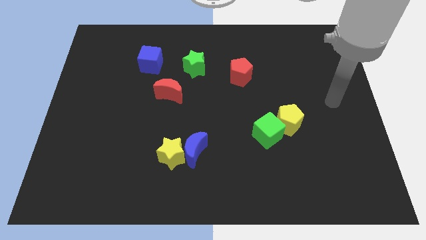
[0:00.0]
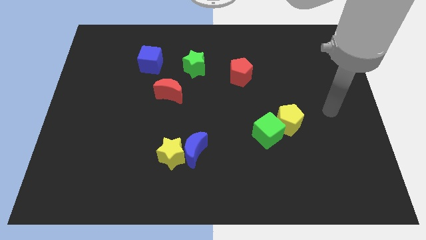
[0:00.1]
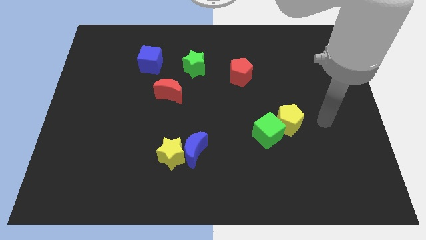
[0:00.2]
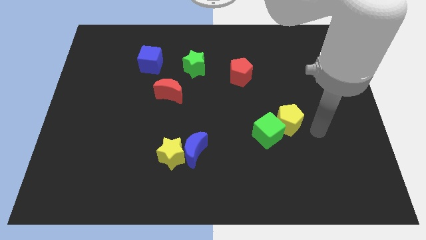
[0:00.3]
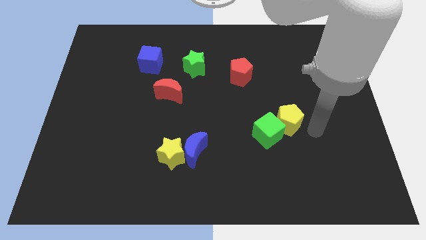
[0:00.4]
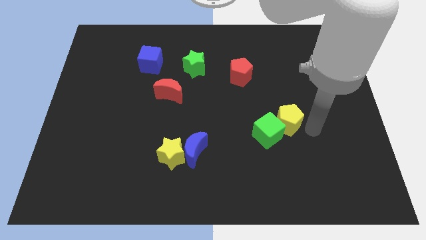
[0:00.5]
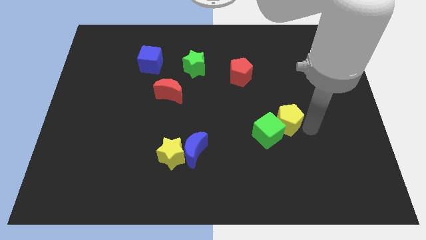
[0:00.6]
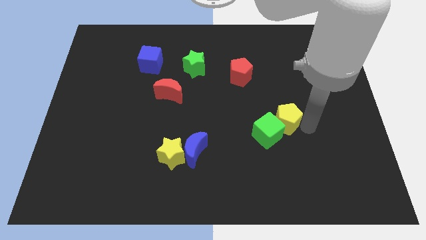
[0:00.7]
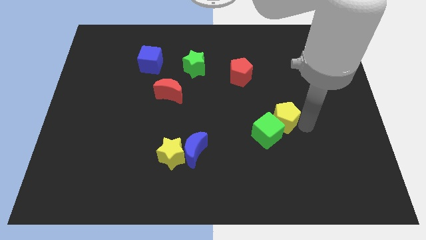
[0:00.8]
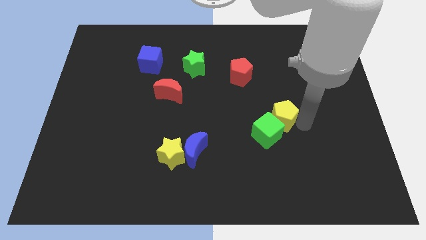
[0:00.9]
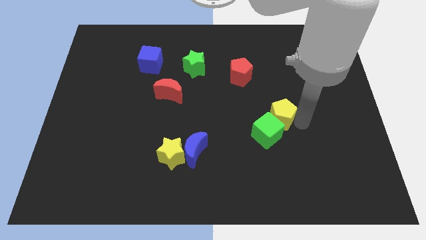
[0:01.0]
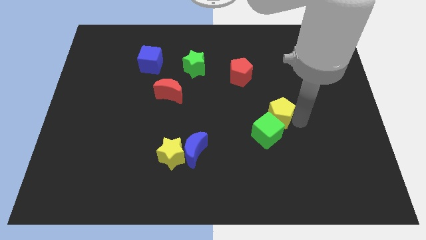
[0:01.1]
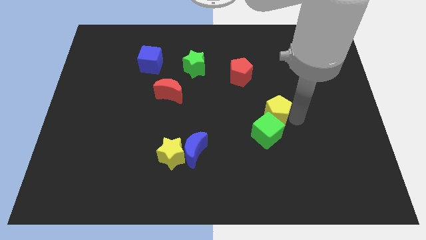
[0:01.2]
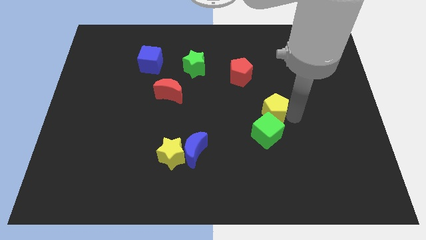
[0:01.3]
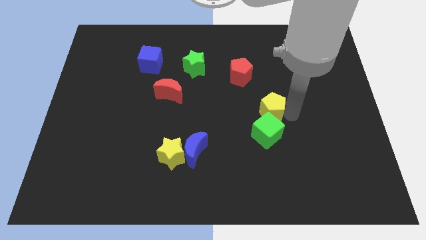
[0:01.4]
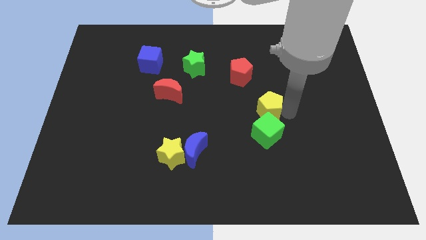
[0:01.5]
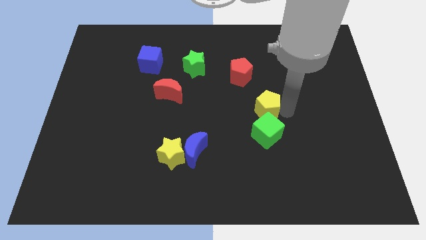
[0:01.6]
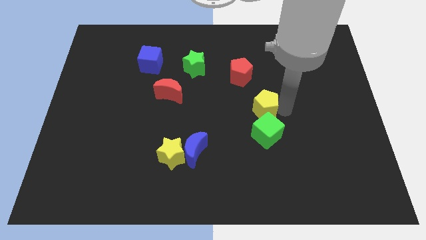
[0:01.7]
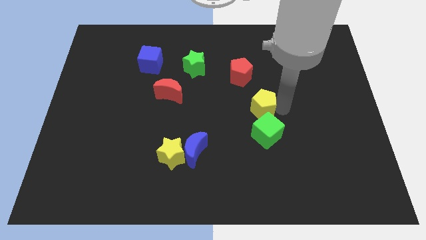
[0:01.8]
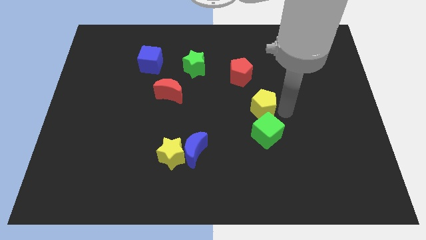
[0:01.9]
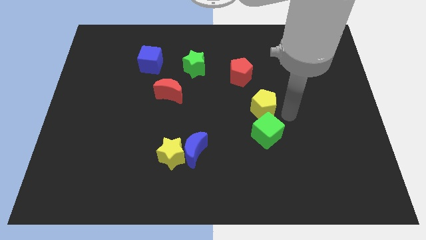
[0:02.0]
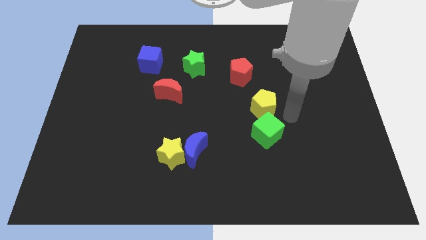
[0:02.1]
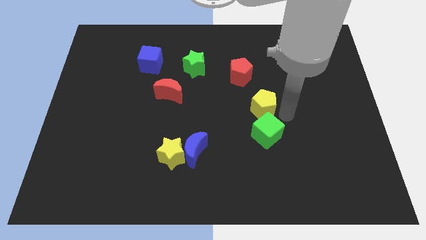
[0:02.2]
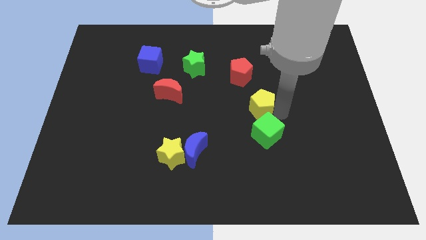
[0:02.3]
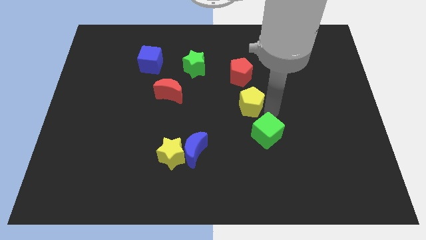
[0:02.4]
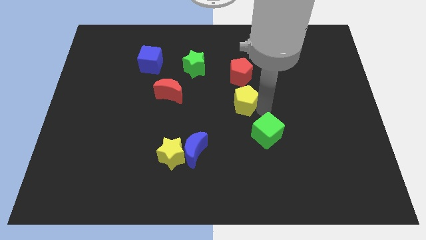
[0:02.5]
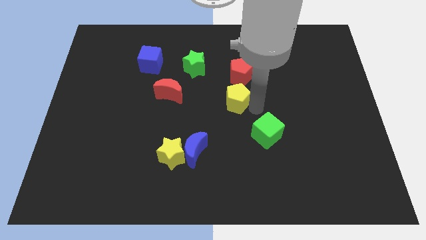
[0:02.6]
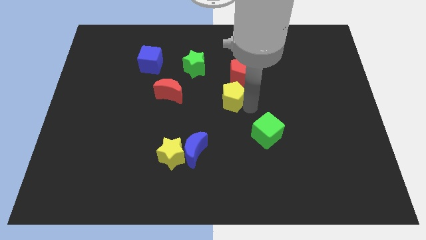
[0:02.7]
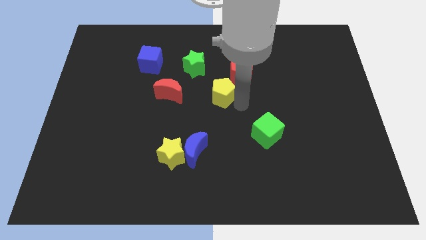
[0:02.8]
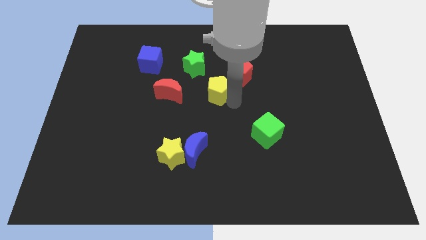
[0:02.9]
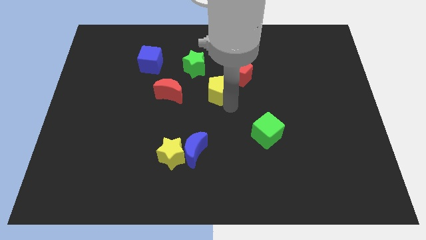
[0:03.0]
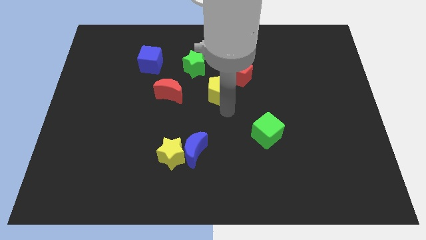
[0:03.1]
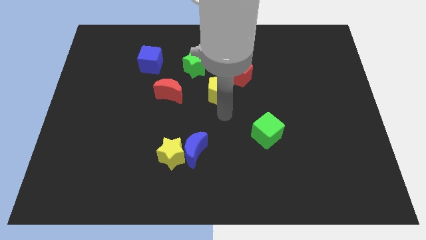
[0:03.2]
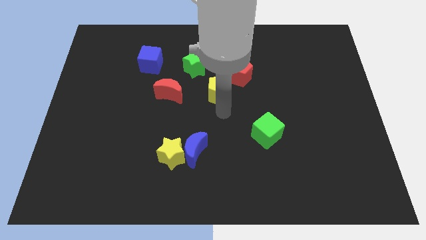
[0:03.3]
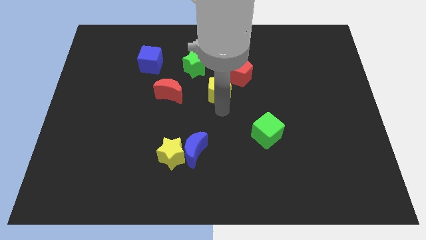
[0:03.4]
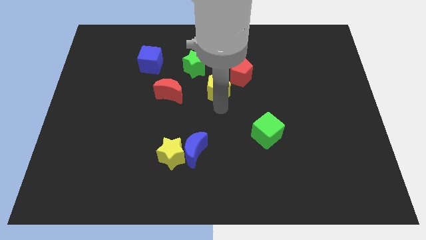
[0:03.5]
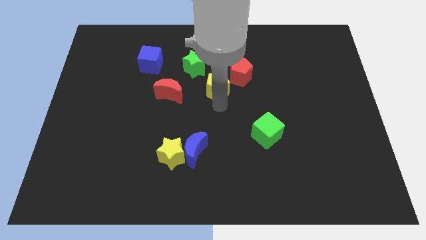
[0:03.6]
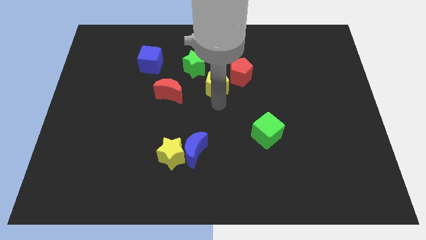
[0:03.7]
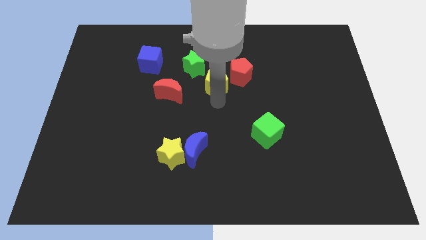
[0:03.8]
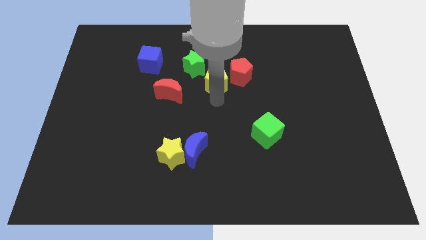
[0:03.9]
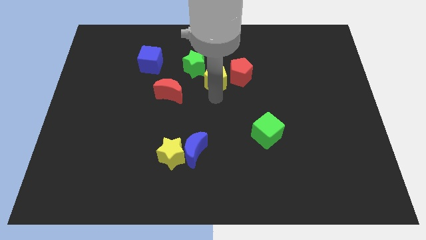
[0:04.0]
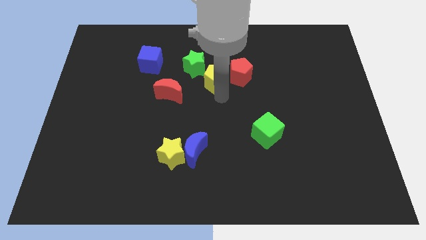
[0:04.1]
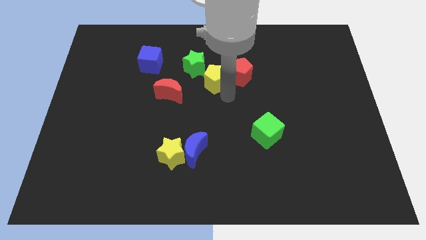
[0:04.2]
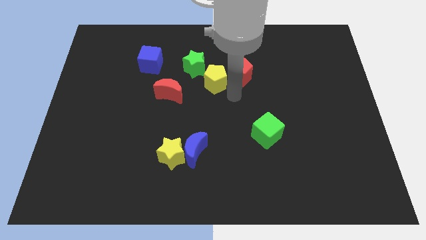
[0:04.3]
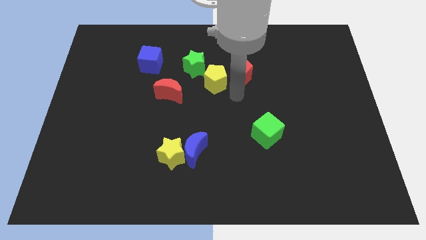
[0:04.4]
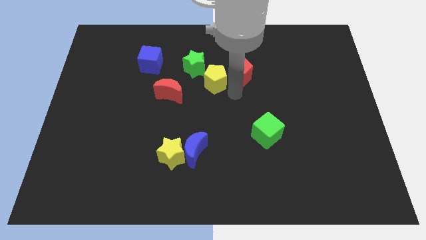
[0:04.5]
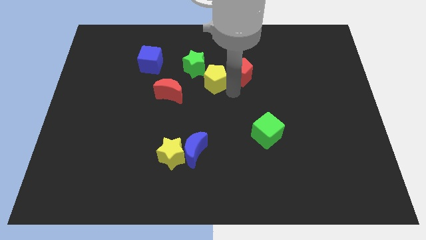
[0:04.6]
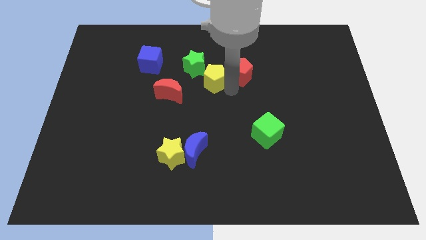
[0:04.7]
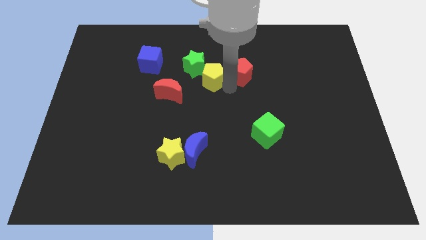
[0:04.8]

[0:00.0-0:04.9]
put the yellow pentagon to the green star

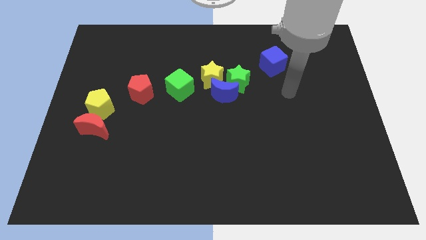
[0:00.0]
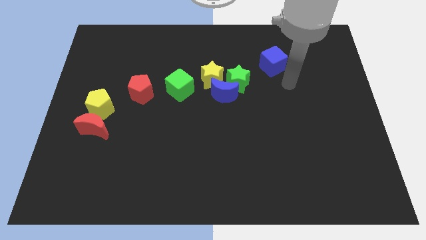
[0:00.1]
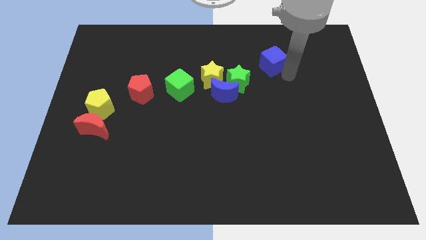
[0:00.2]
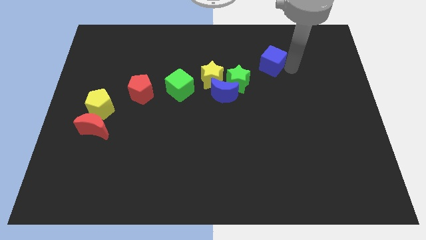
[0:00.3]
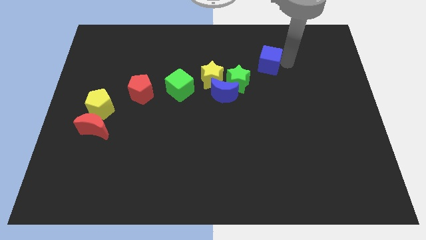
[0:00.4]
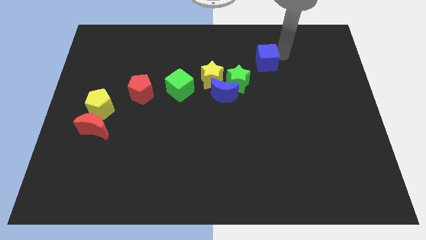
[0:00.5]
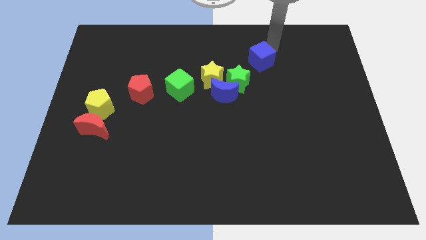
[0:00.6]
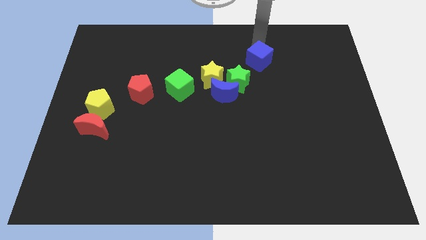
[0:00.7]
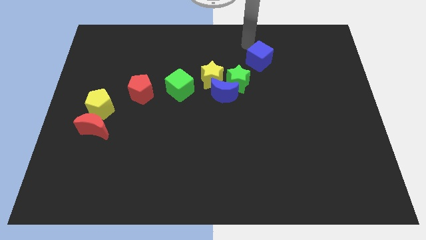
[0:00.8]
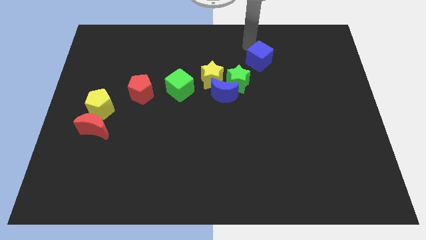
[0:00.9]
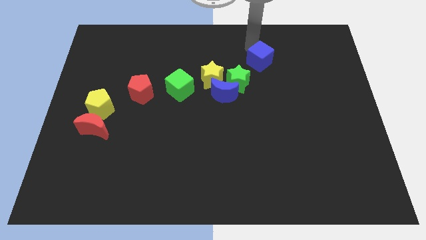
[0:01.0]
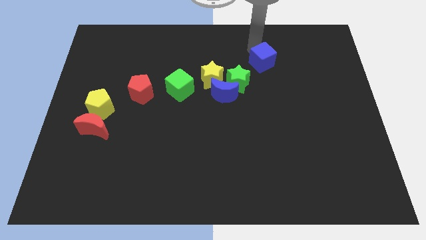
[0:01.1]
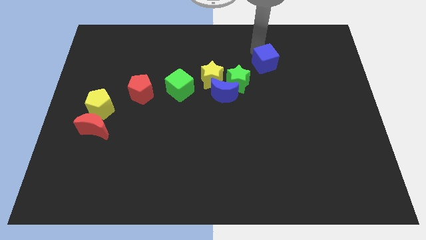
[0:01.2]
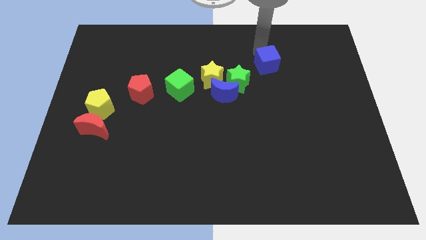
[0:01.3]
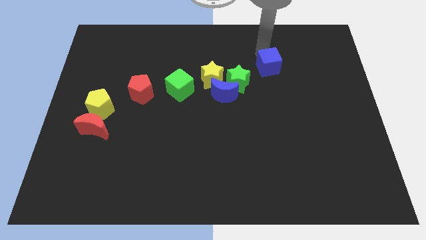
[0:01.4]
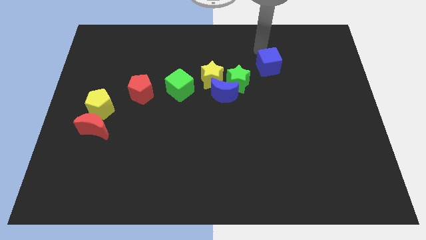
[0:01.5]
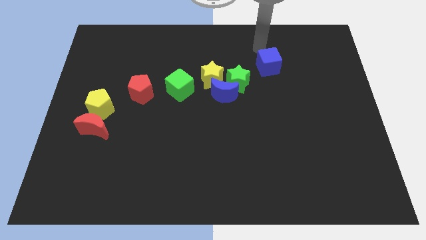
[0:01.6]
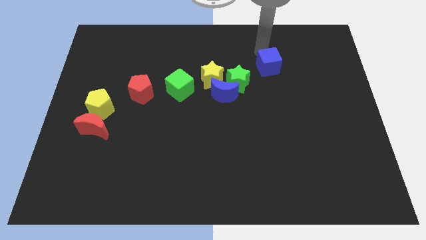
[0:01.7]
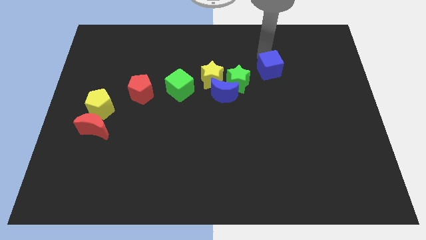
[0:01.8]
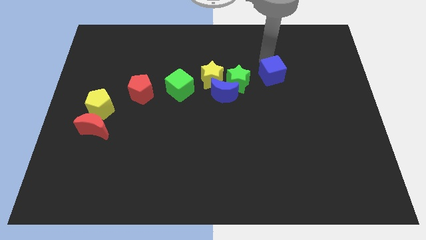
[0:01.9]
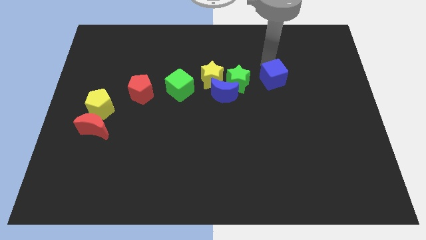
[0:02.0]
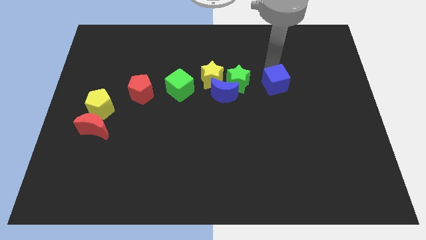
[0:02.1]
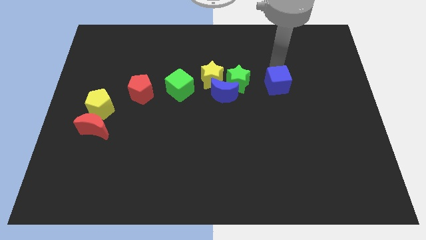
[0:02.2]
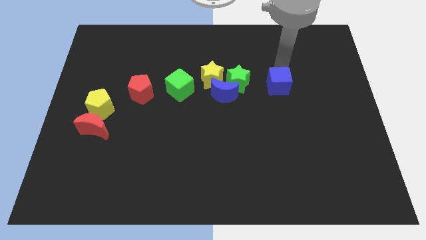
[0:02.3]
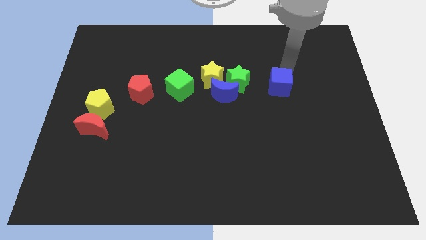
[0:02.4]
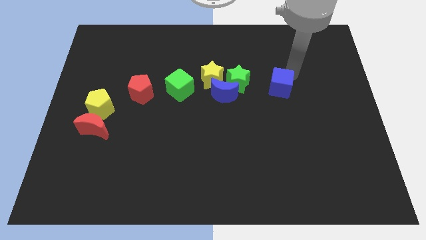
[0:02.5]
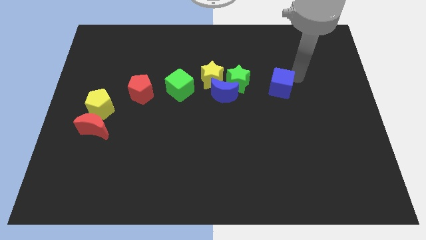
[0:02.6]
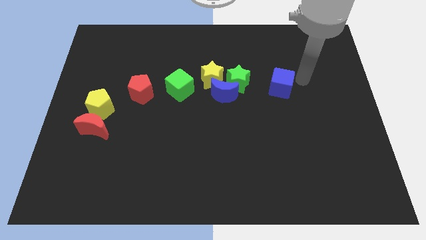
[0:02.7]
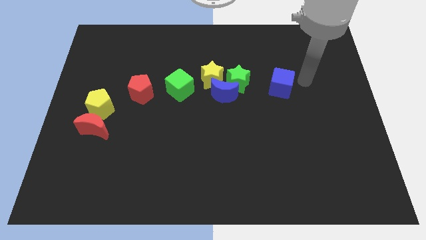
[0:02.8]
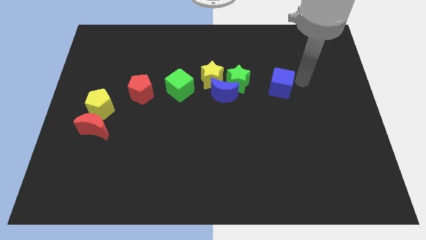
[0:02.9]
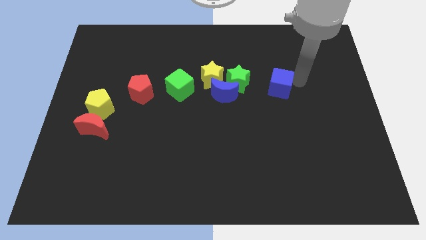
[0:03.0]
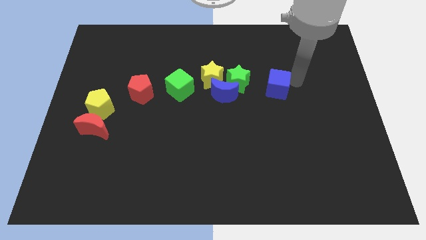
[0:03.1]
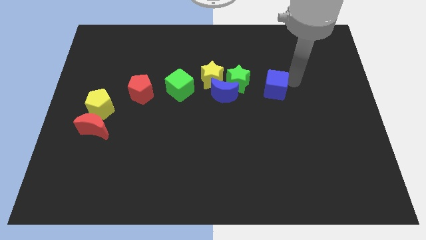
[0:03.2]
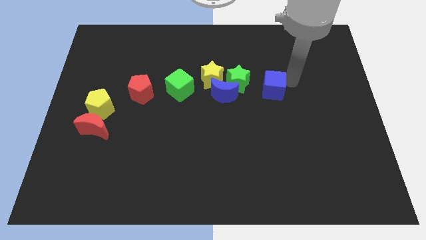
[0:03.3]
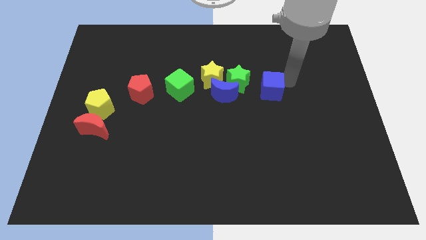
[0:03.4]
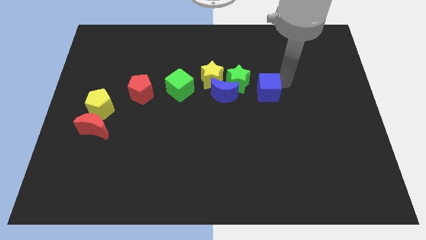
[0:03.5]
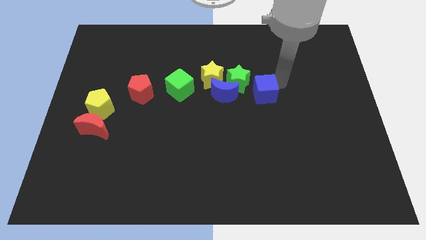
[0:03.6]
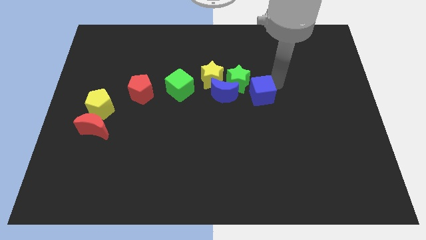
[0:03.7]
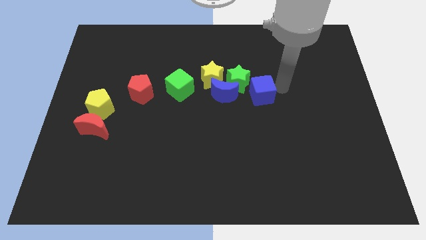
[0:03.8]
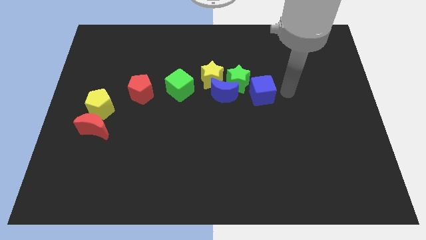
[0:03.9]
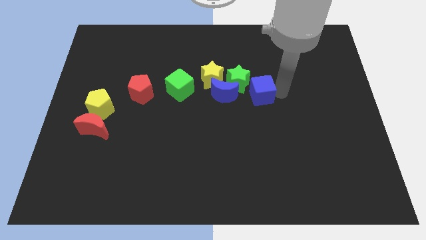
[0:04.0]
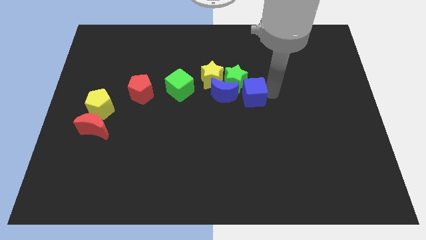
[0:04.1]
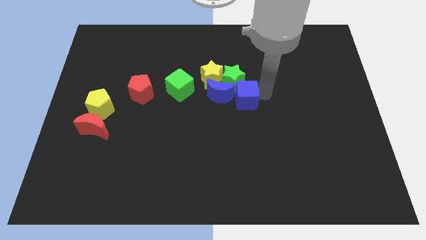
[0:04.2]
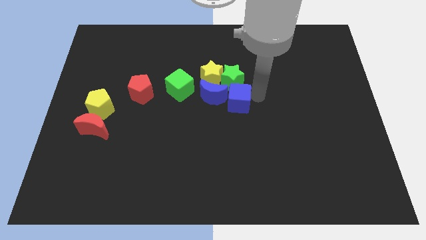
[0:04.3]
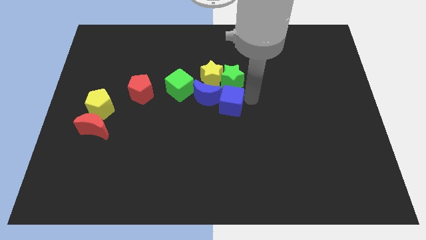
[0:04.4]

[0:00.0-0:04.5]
push the blue cube close to the blue moon
